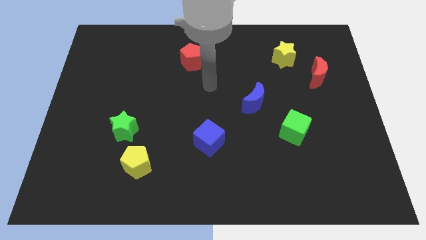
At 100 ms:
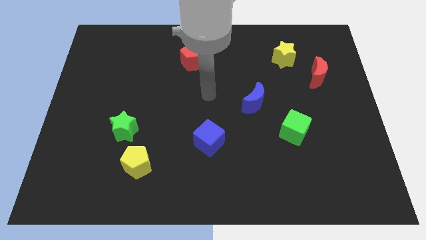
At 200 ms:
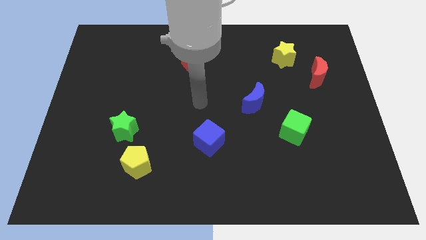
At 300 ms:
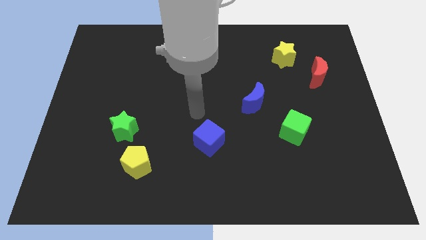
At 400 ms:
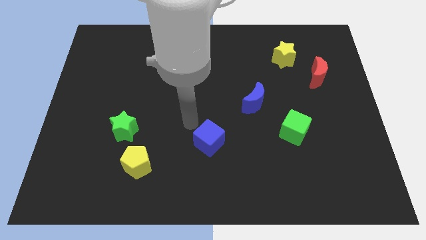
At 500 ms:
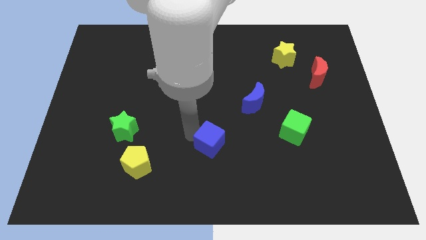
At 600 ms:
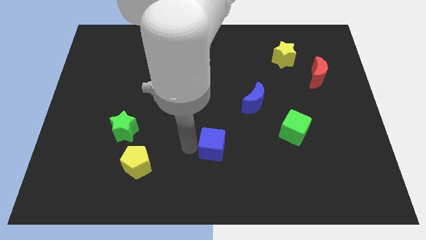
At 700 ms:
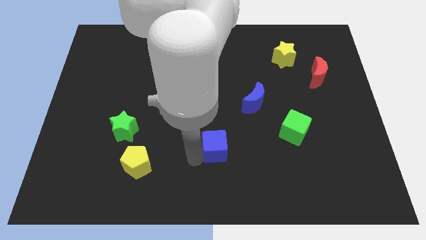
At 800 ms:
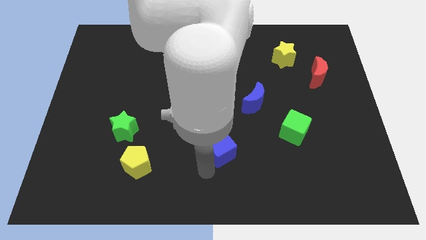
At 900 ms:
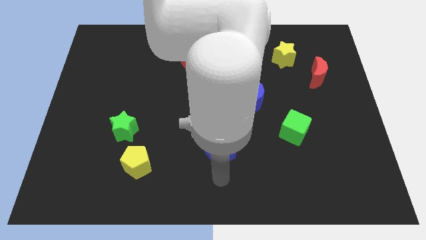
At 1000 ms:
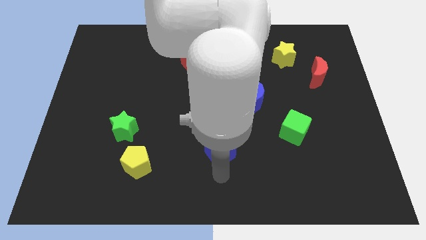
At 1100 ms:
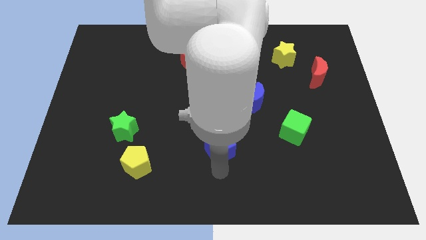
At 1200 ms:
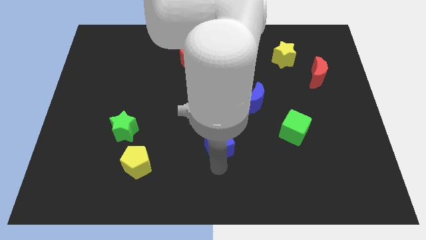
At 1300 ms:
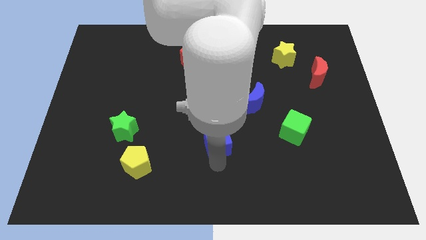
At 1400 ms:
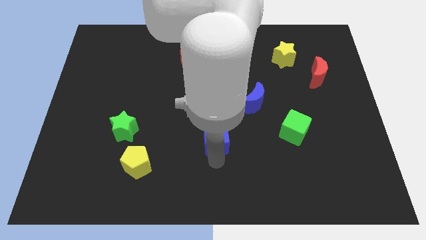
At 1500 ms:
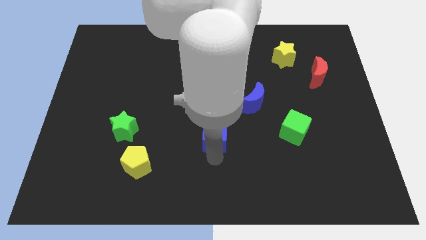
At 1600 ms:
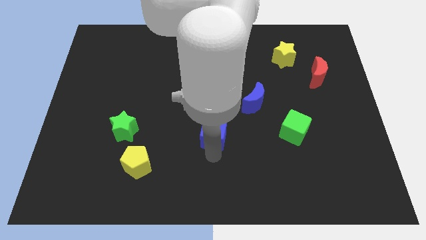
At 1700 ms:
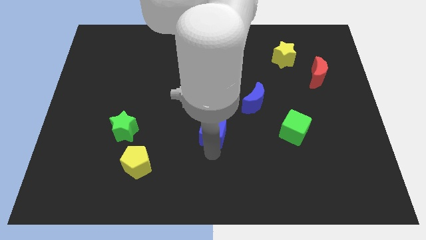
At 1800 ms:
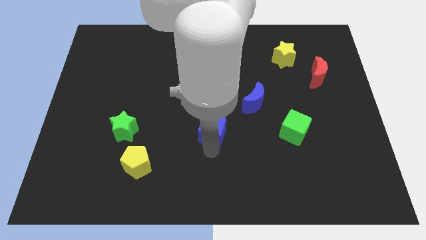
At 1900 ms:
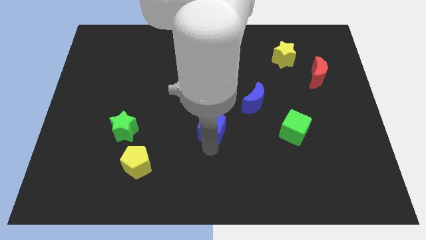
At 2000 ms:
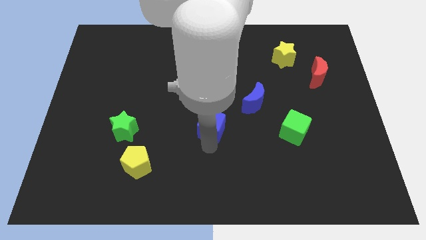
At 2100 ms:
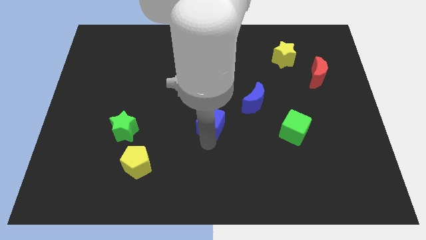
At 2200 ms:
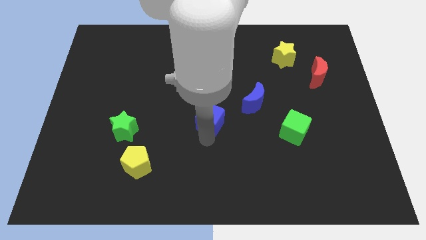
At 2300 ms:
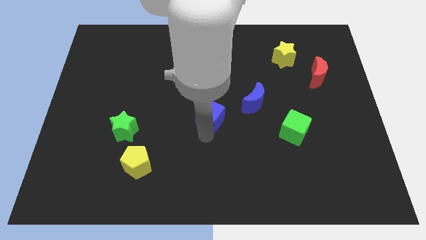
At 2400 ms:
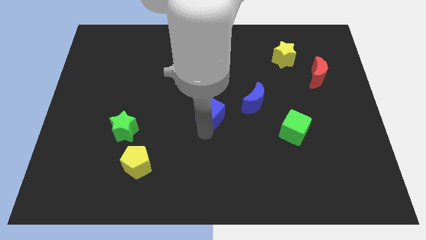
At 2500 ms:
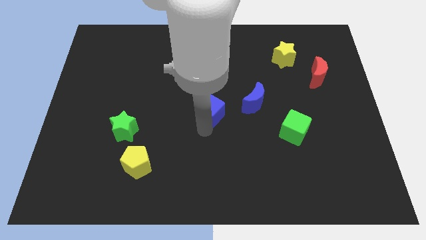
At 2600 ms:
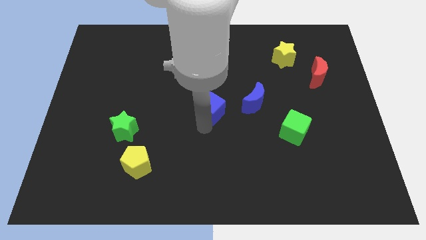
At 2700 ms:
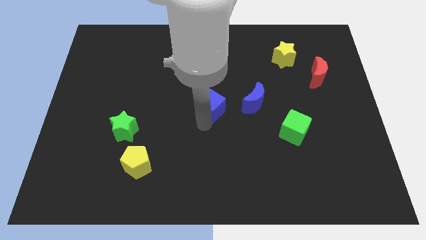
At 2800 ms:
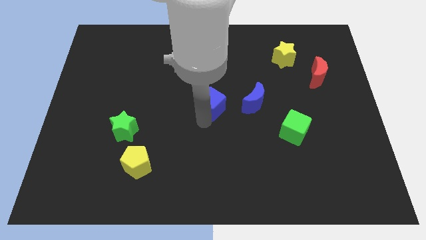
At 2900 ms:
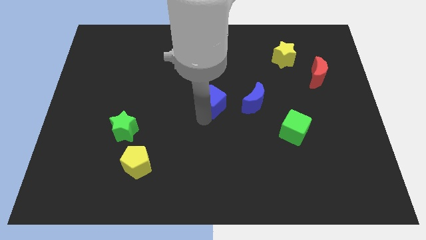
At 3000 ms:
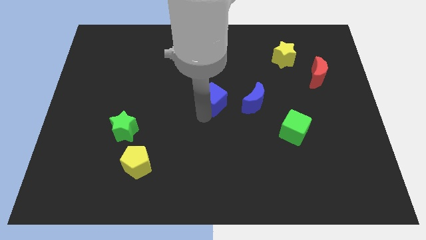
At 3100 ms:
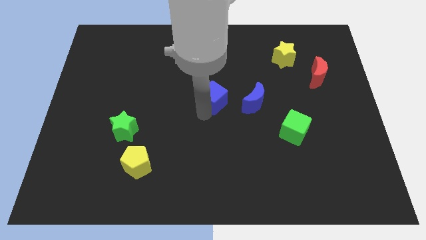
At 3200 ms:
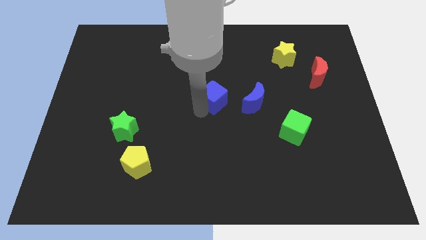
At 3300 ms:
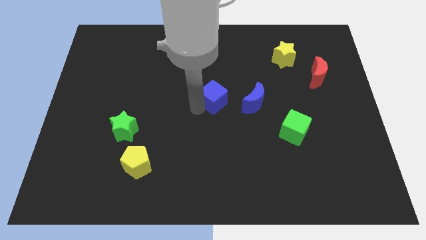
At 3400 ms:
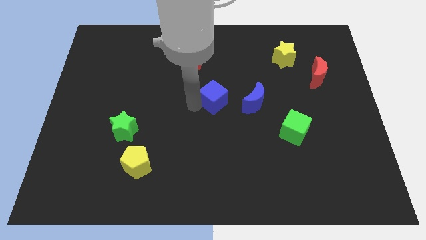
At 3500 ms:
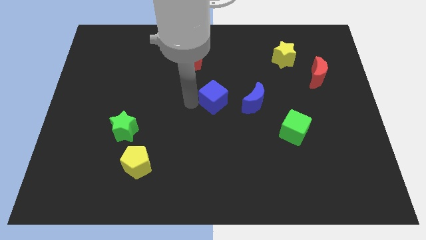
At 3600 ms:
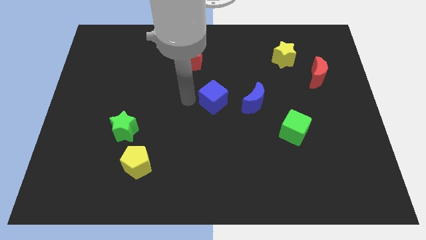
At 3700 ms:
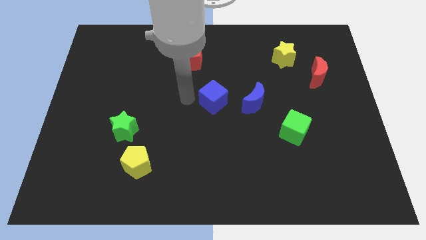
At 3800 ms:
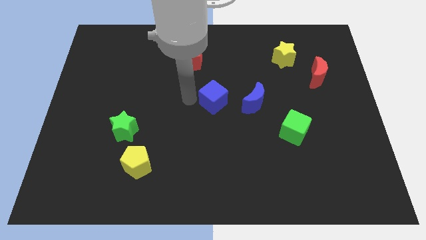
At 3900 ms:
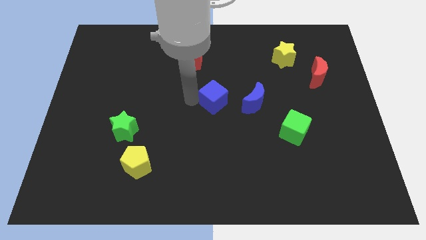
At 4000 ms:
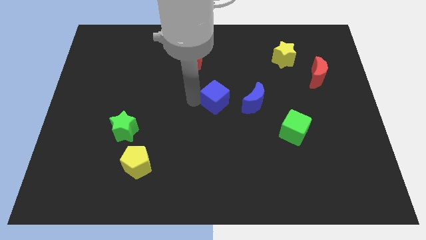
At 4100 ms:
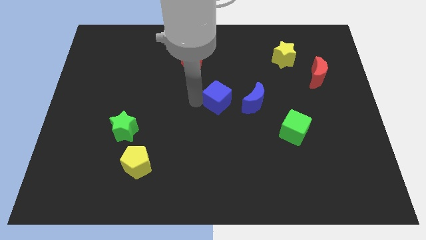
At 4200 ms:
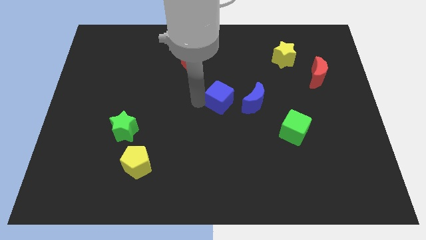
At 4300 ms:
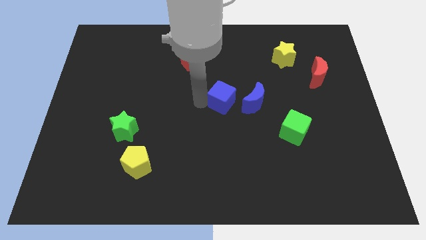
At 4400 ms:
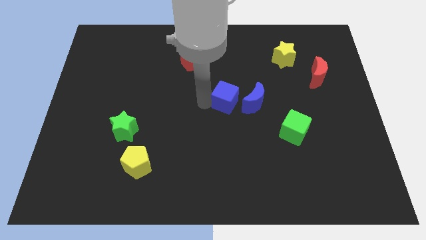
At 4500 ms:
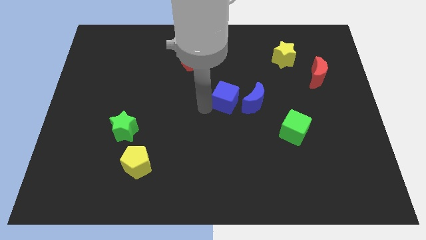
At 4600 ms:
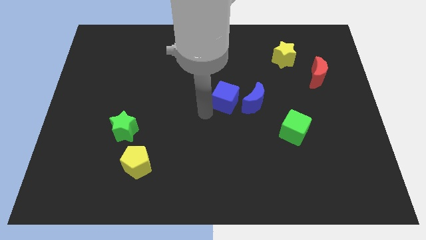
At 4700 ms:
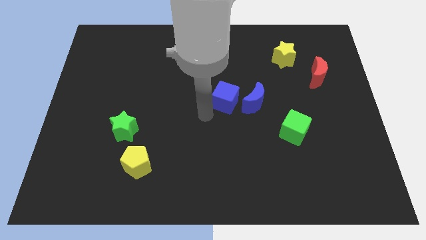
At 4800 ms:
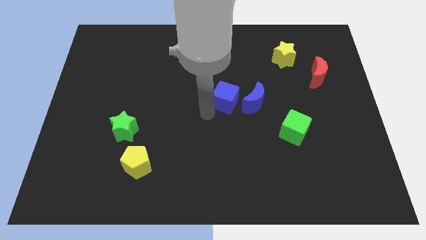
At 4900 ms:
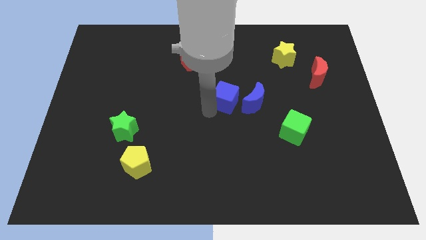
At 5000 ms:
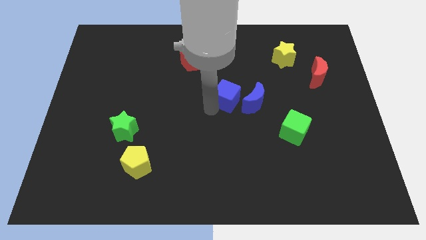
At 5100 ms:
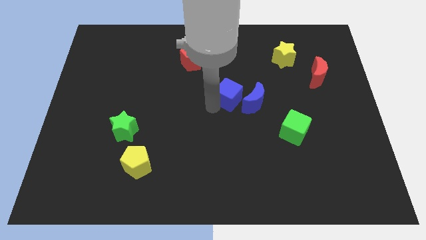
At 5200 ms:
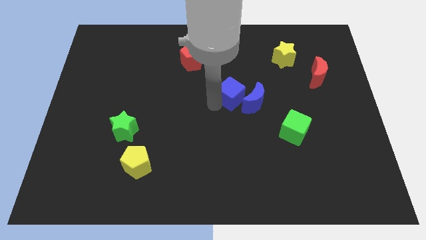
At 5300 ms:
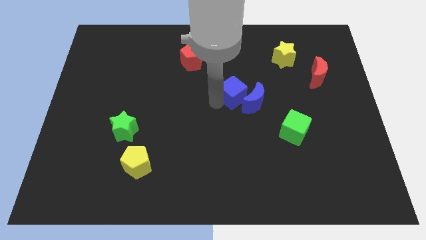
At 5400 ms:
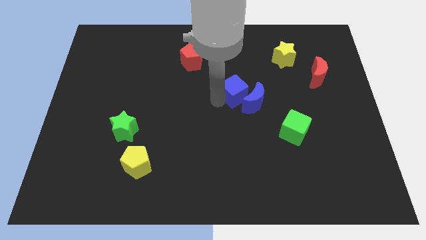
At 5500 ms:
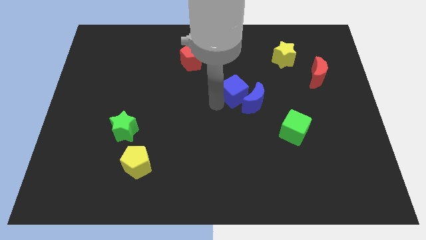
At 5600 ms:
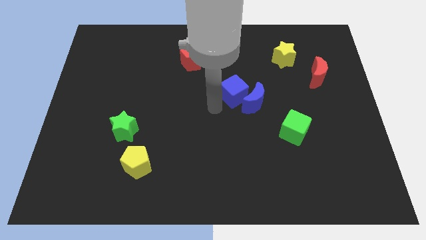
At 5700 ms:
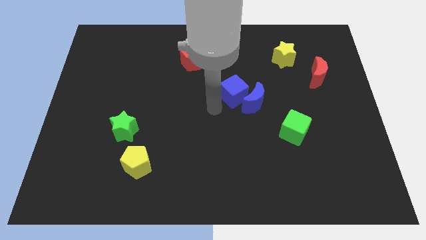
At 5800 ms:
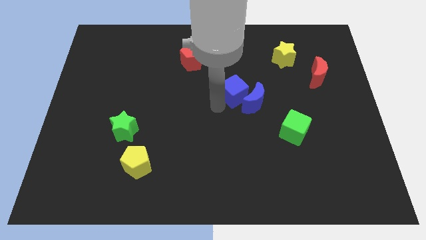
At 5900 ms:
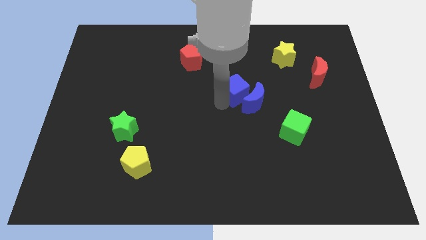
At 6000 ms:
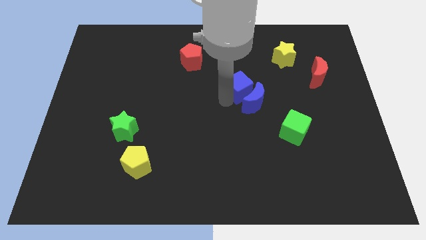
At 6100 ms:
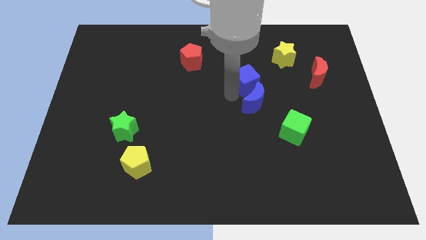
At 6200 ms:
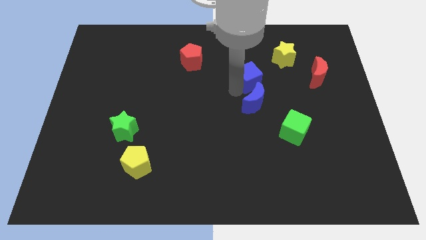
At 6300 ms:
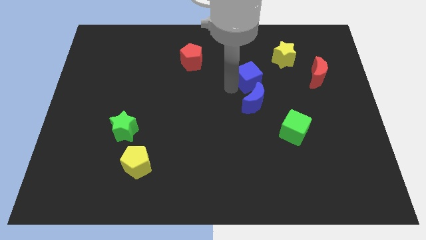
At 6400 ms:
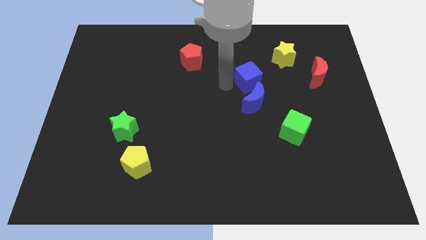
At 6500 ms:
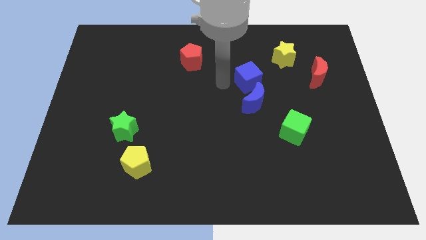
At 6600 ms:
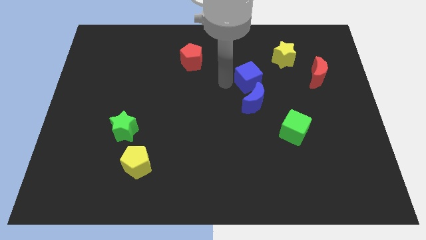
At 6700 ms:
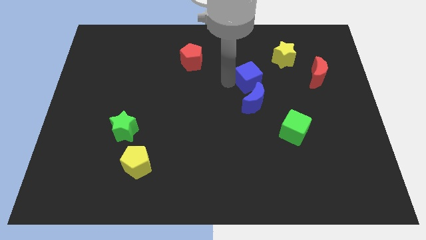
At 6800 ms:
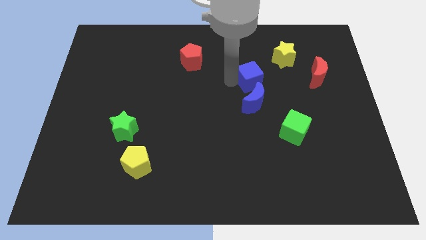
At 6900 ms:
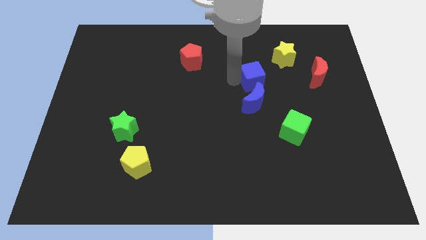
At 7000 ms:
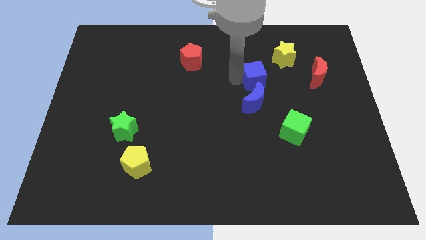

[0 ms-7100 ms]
push the blue cube up and then to the right

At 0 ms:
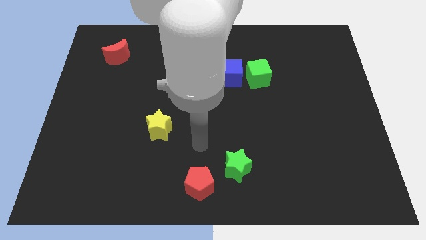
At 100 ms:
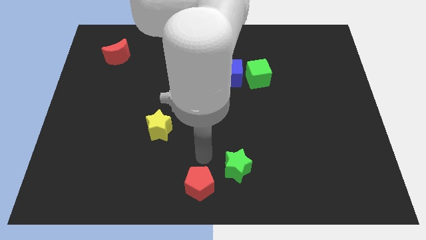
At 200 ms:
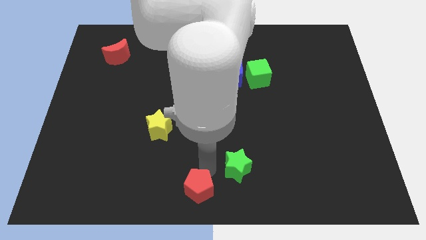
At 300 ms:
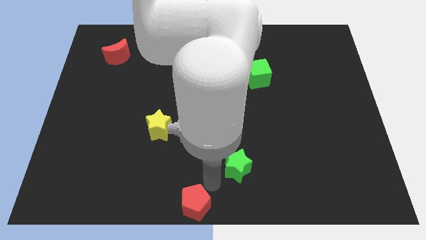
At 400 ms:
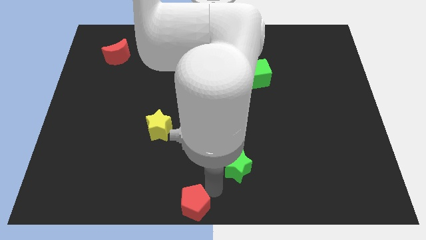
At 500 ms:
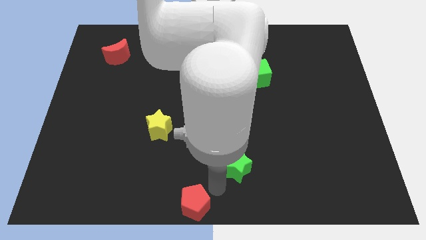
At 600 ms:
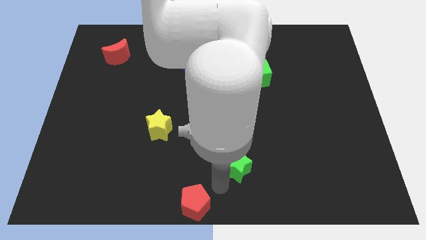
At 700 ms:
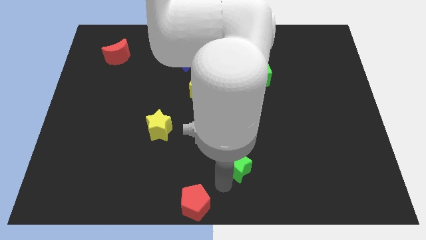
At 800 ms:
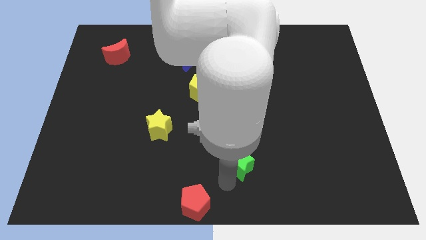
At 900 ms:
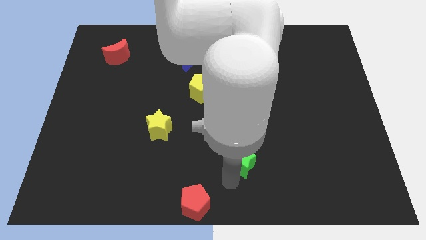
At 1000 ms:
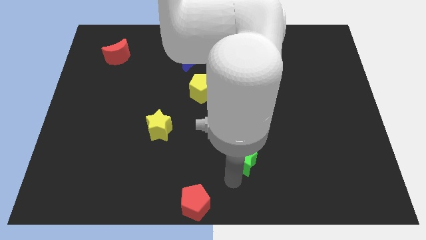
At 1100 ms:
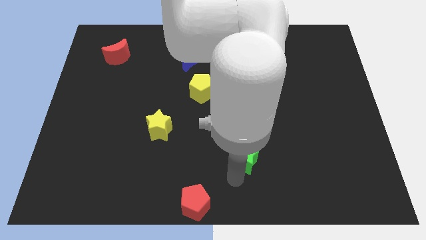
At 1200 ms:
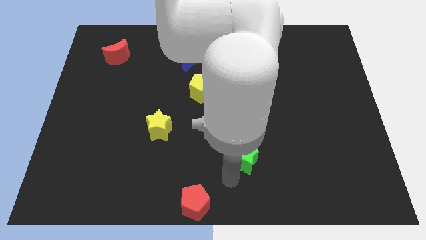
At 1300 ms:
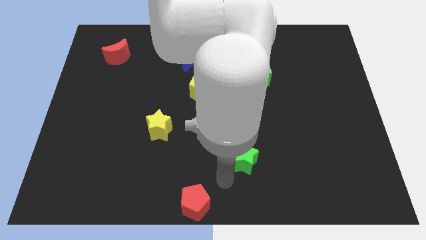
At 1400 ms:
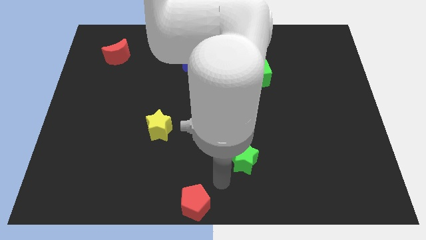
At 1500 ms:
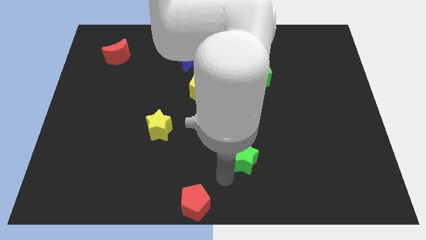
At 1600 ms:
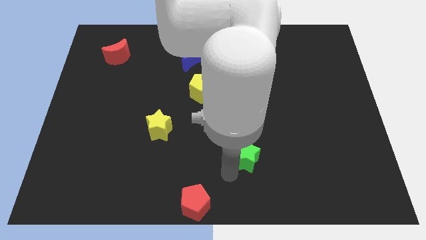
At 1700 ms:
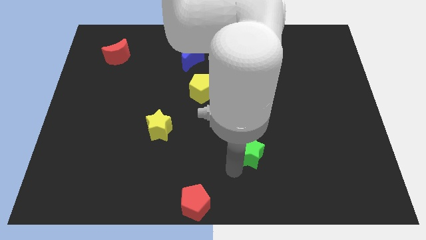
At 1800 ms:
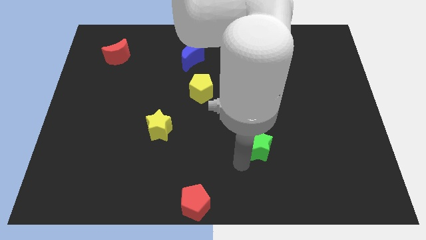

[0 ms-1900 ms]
move the green star diagonally upwards and to the right a little bit
